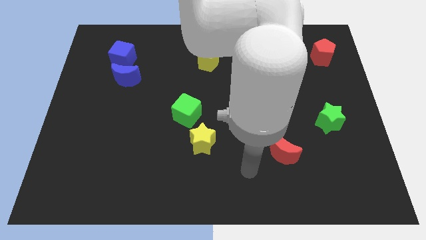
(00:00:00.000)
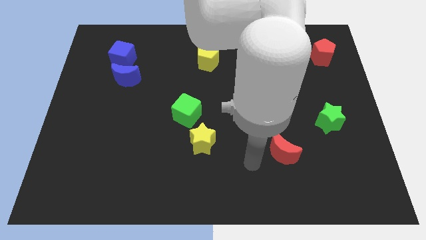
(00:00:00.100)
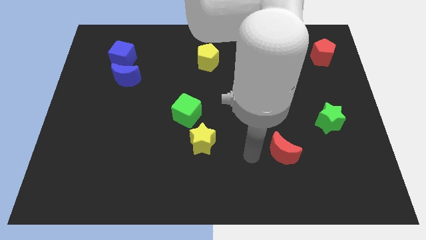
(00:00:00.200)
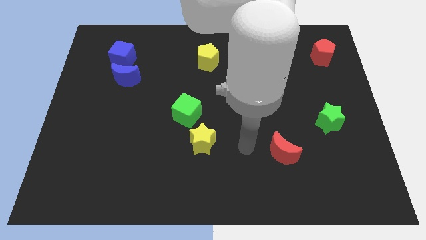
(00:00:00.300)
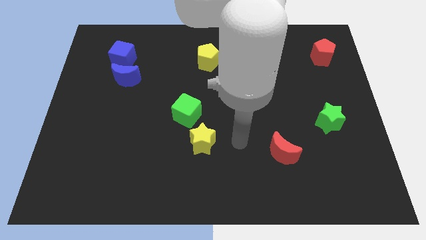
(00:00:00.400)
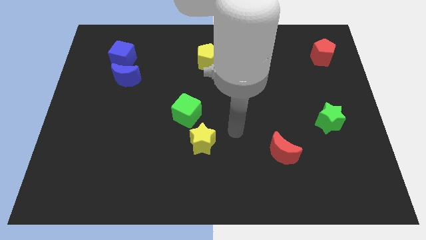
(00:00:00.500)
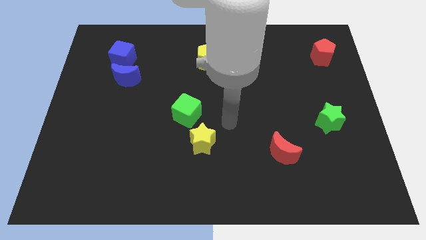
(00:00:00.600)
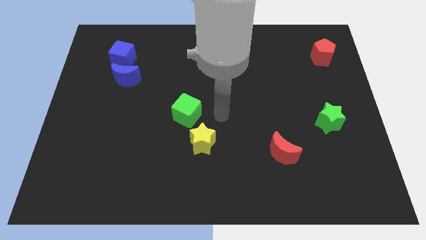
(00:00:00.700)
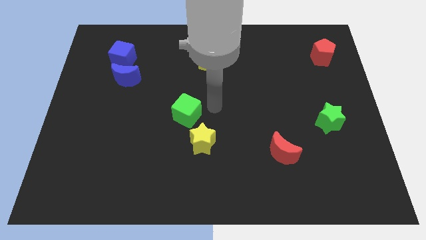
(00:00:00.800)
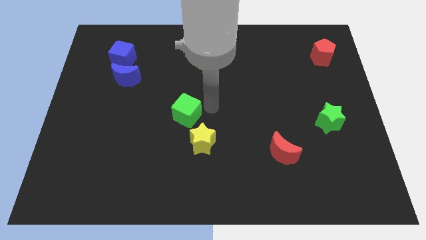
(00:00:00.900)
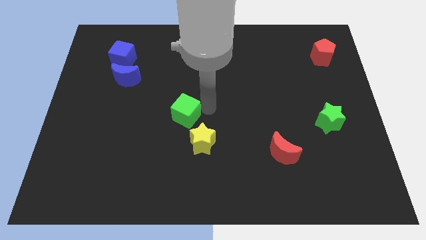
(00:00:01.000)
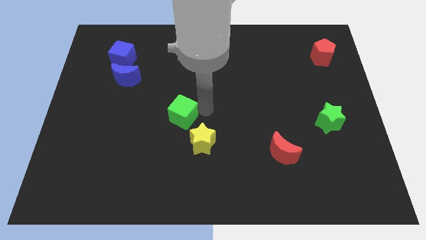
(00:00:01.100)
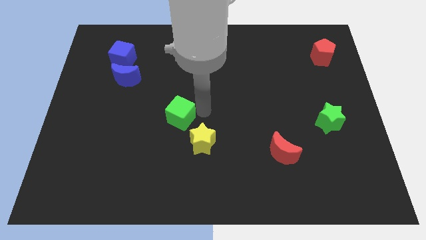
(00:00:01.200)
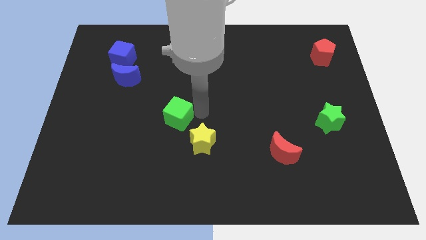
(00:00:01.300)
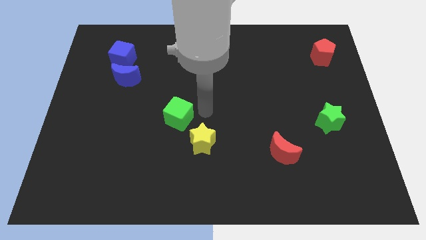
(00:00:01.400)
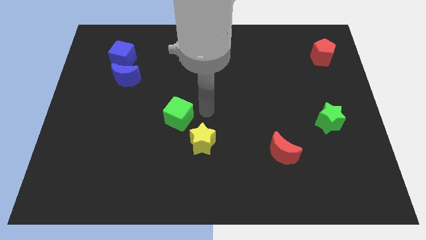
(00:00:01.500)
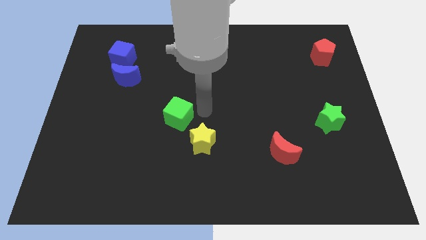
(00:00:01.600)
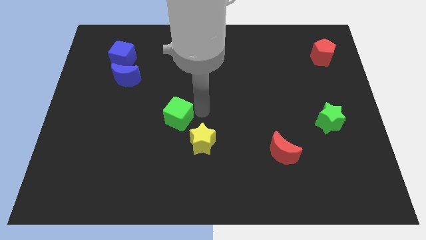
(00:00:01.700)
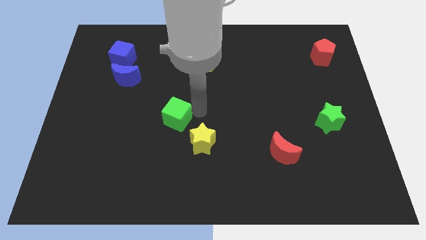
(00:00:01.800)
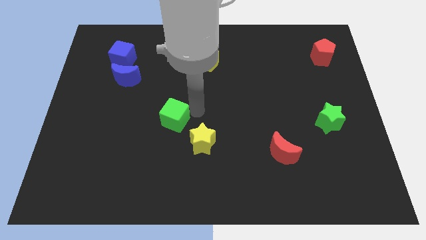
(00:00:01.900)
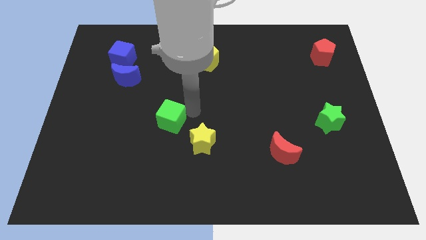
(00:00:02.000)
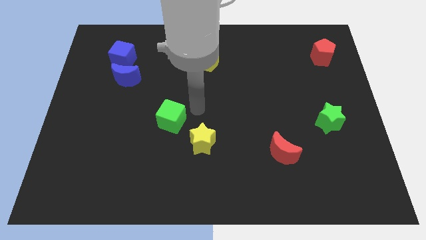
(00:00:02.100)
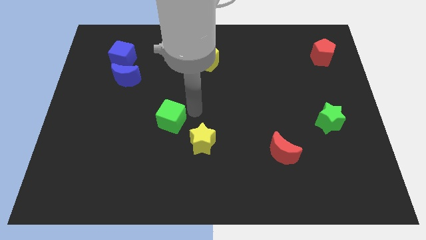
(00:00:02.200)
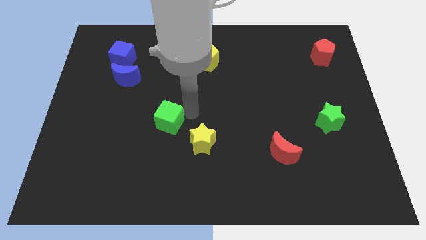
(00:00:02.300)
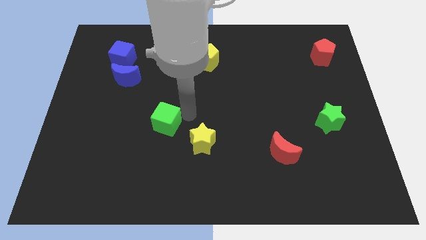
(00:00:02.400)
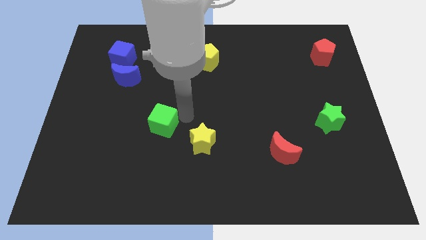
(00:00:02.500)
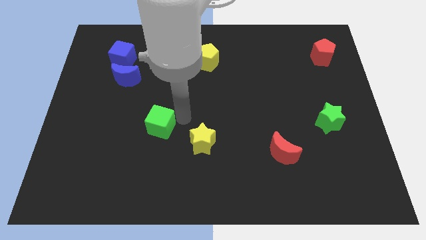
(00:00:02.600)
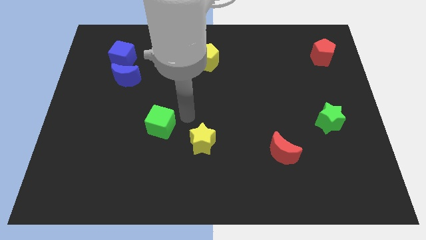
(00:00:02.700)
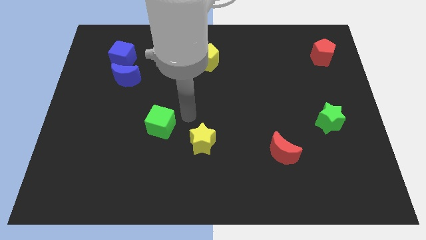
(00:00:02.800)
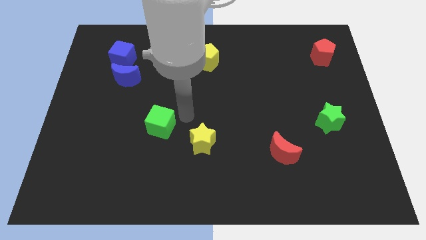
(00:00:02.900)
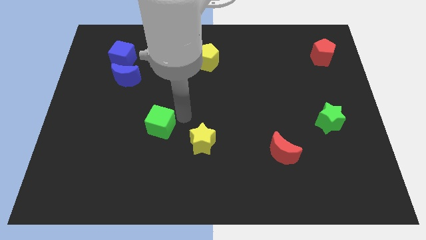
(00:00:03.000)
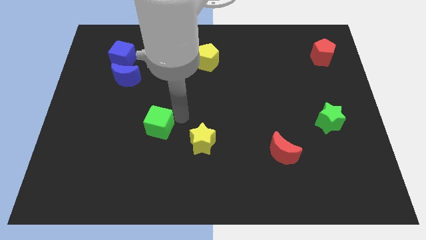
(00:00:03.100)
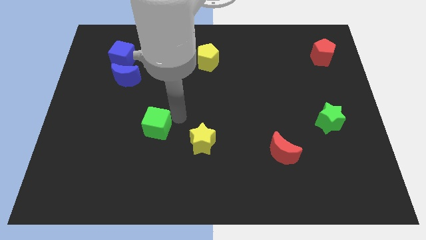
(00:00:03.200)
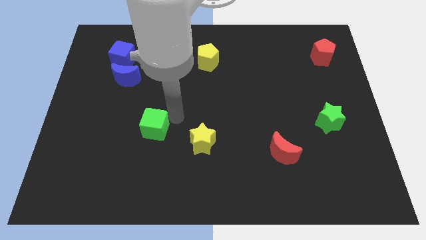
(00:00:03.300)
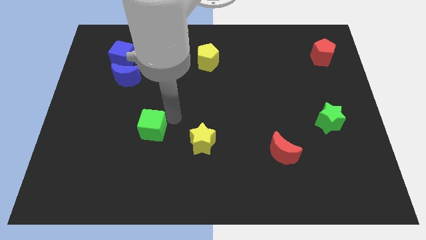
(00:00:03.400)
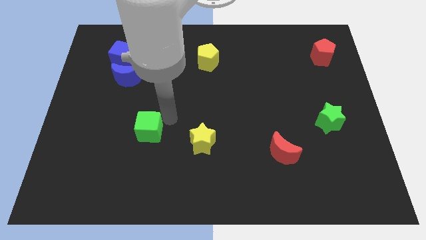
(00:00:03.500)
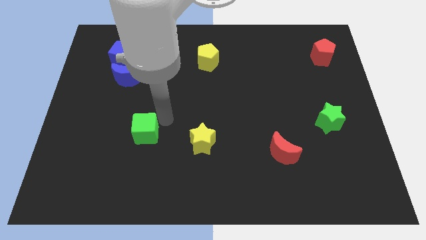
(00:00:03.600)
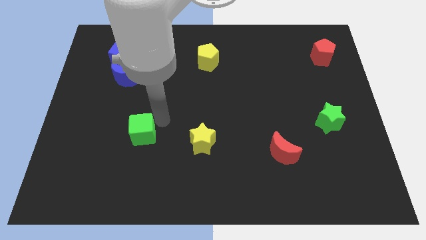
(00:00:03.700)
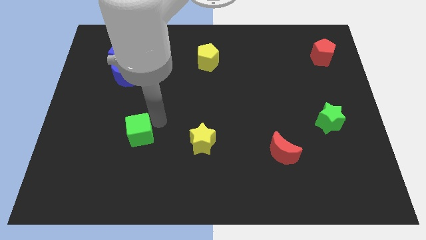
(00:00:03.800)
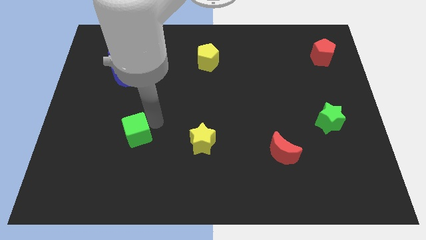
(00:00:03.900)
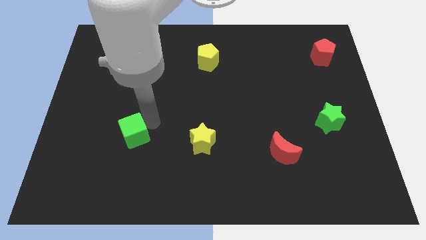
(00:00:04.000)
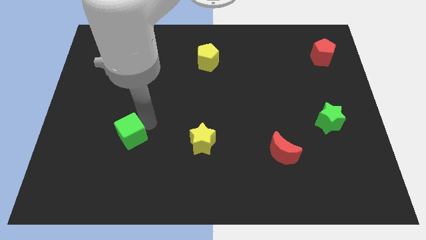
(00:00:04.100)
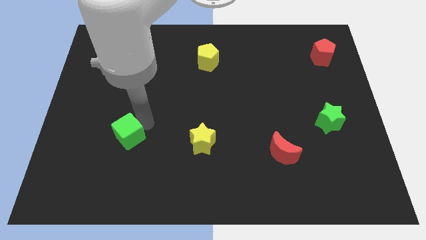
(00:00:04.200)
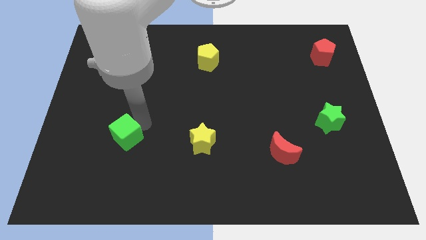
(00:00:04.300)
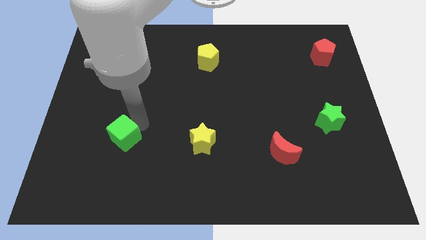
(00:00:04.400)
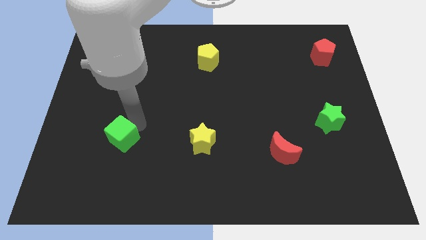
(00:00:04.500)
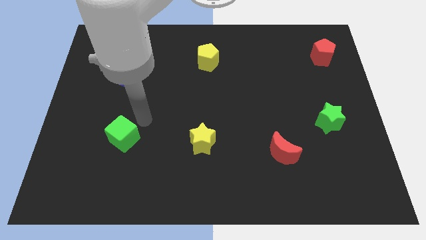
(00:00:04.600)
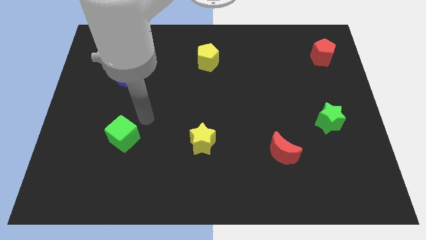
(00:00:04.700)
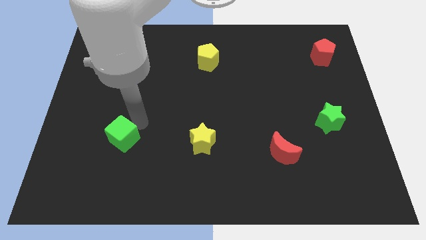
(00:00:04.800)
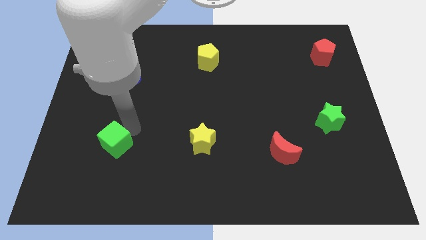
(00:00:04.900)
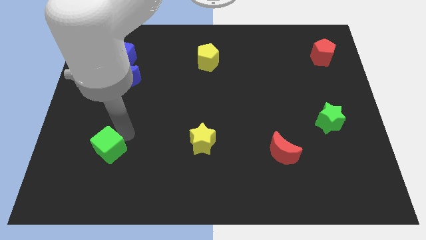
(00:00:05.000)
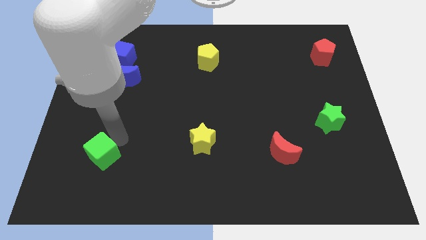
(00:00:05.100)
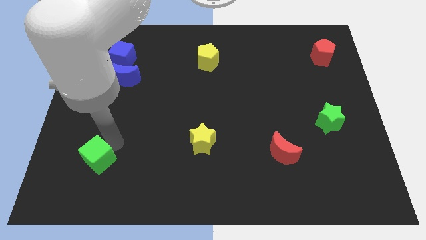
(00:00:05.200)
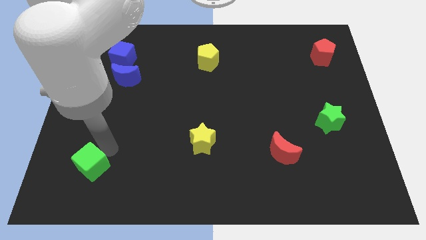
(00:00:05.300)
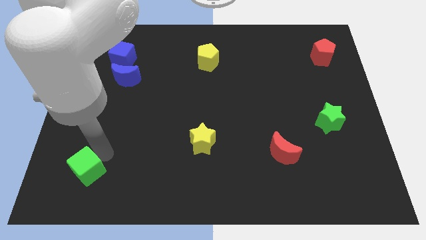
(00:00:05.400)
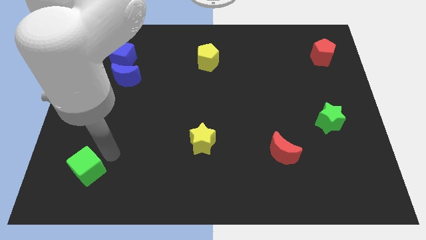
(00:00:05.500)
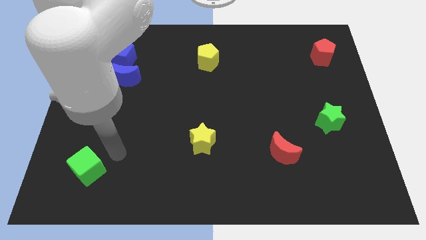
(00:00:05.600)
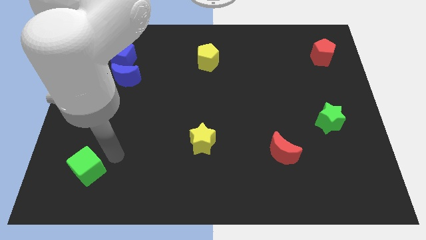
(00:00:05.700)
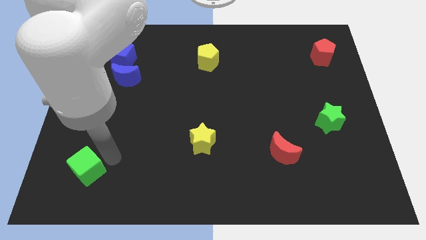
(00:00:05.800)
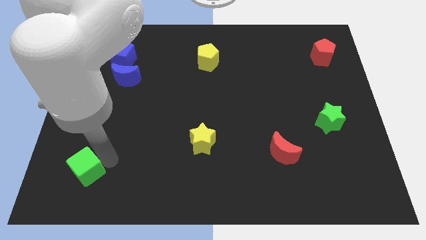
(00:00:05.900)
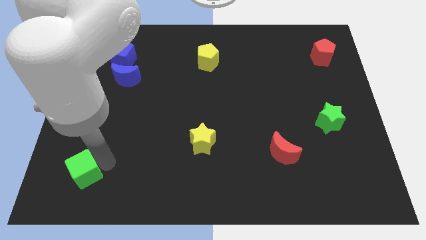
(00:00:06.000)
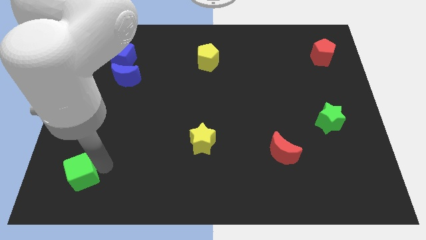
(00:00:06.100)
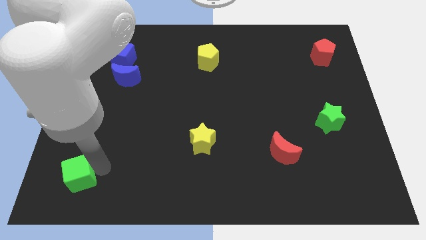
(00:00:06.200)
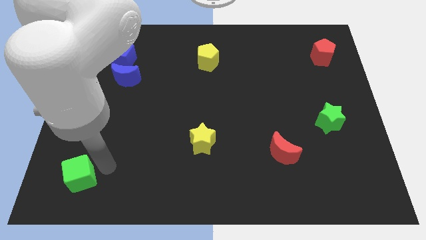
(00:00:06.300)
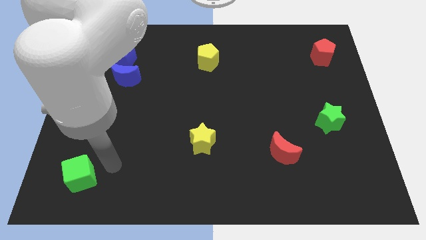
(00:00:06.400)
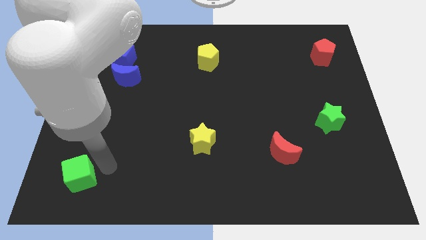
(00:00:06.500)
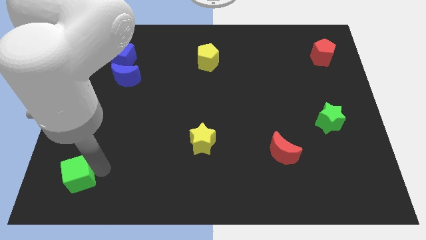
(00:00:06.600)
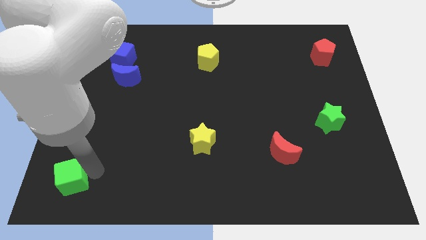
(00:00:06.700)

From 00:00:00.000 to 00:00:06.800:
push the green cube to the bottom left of the board
